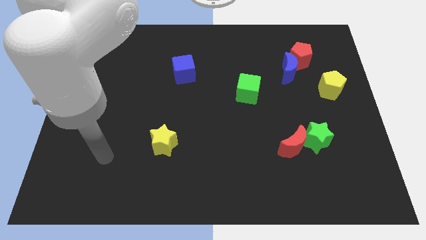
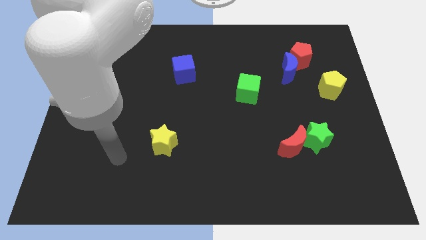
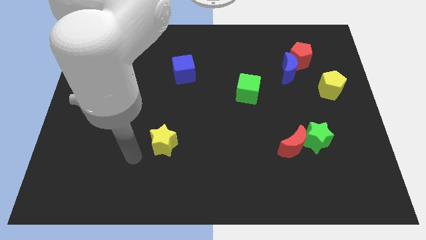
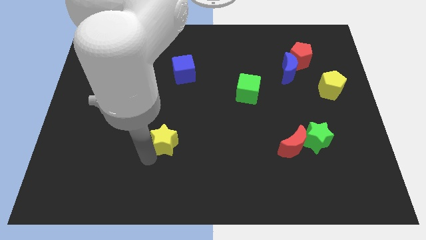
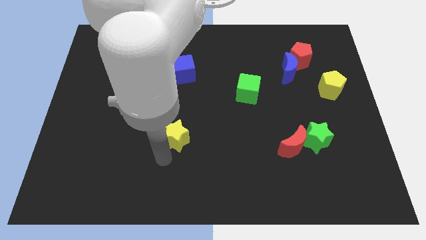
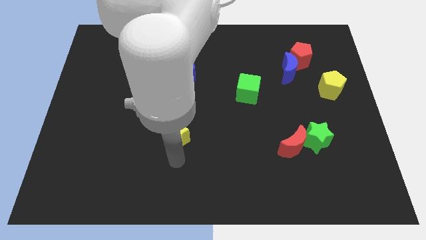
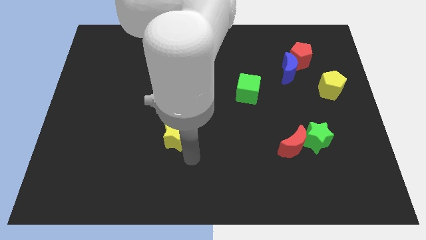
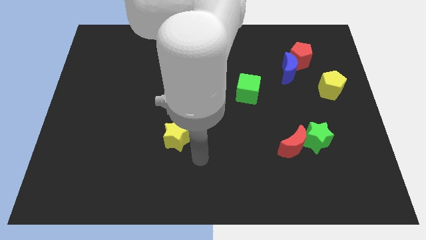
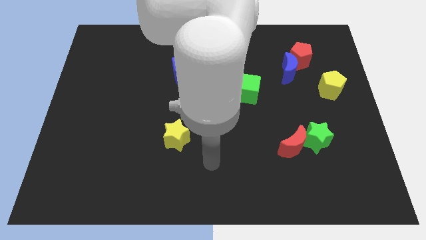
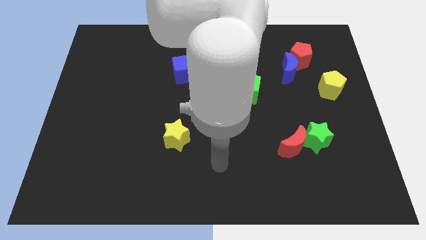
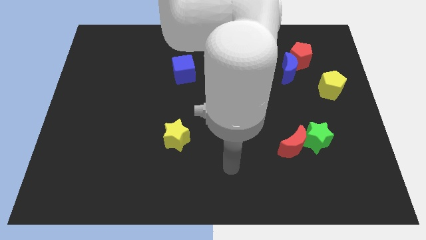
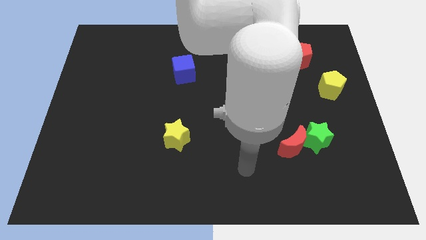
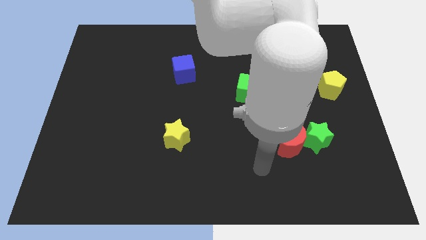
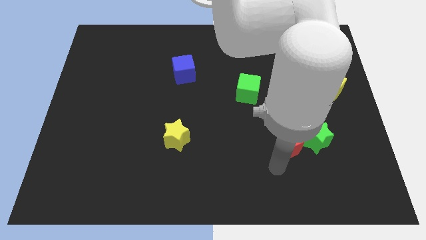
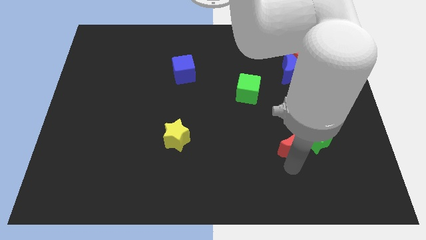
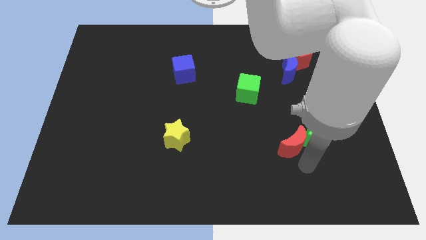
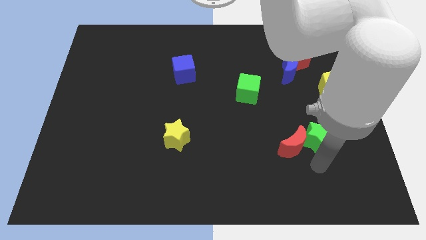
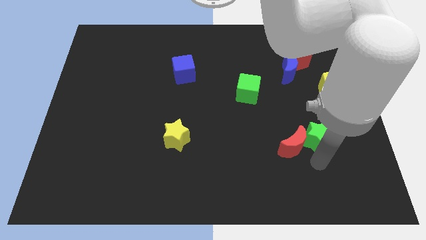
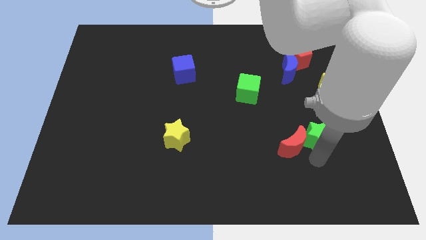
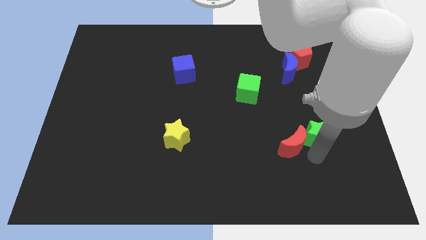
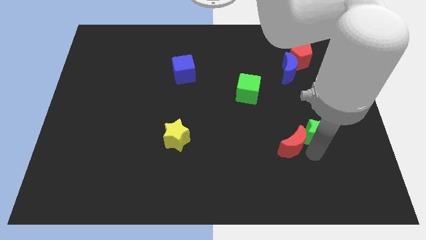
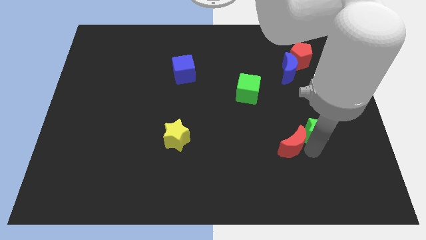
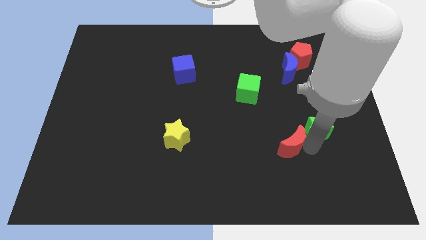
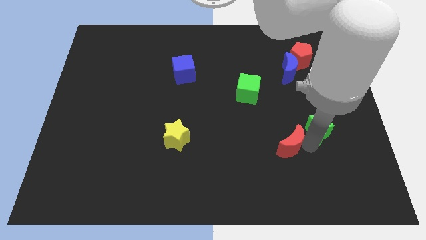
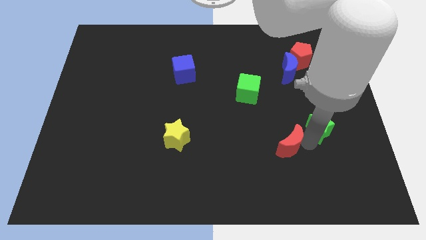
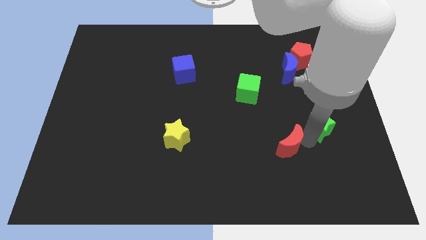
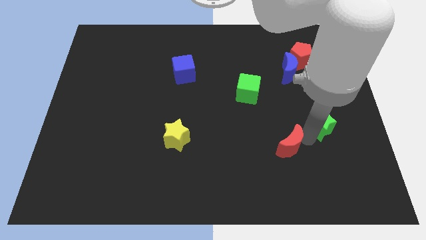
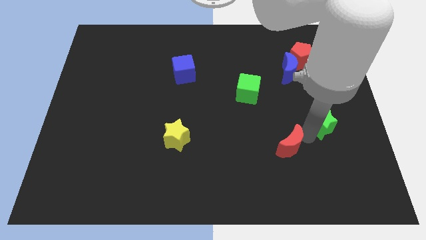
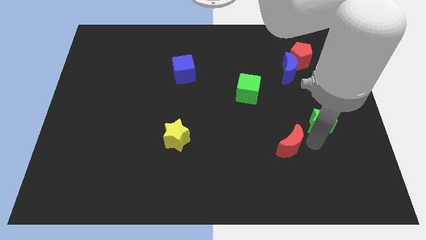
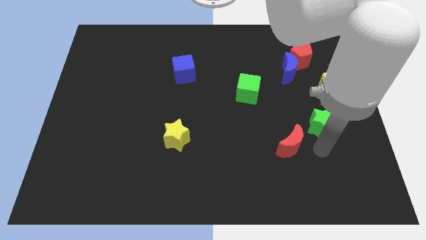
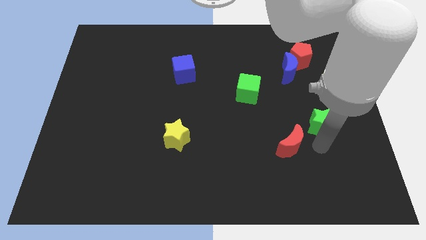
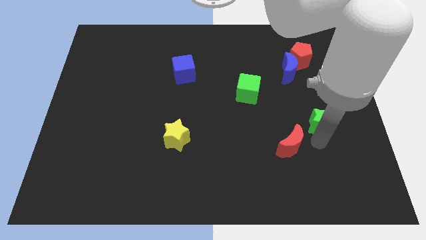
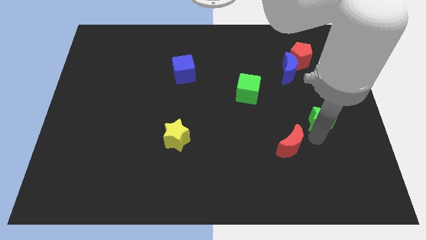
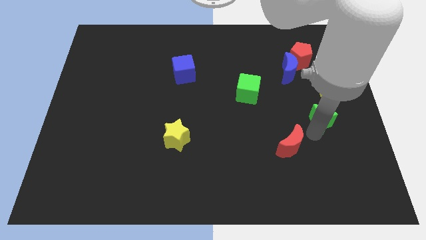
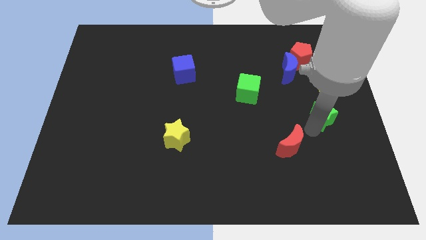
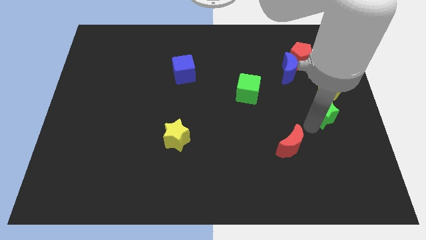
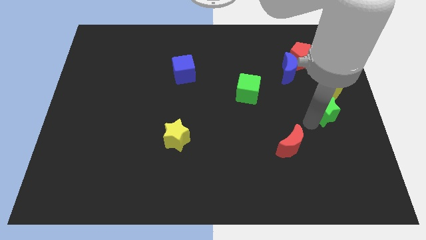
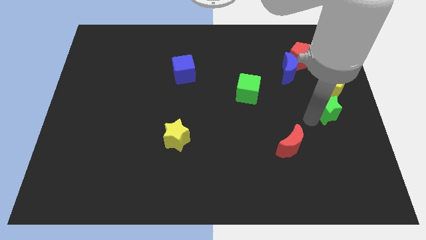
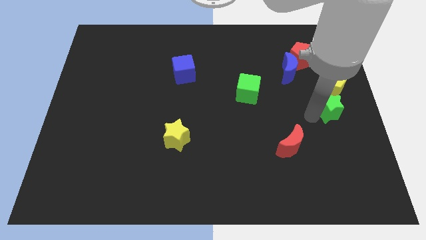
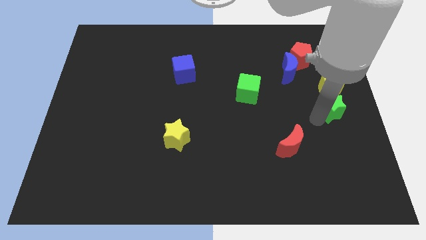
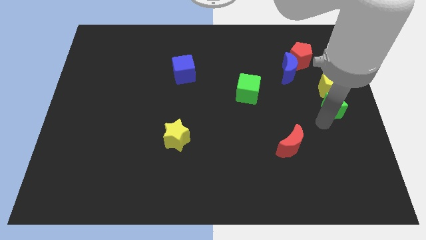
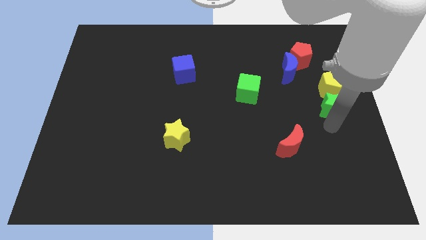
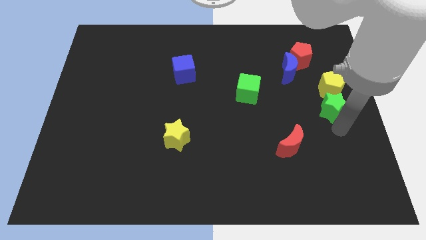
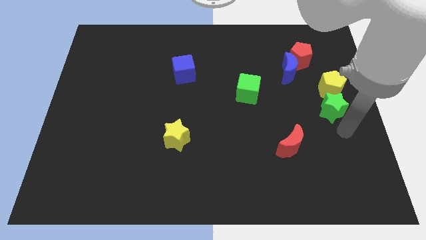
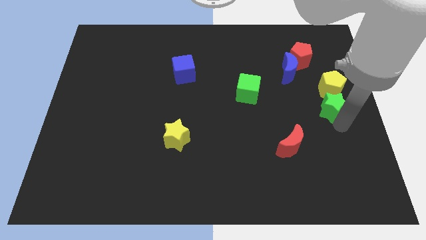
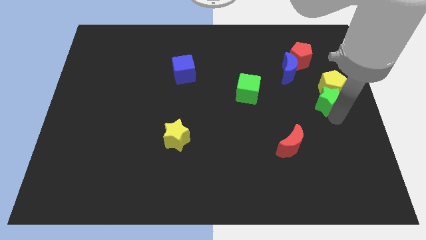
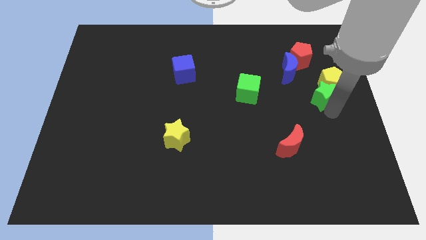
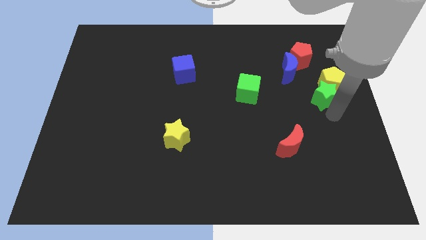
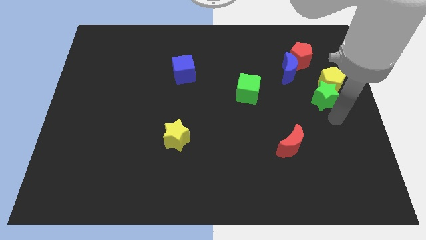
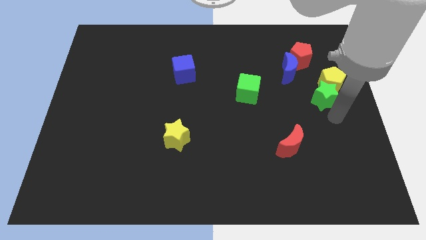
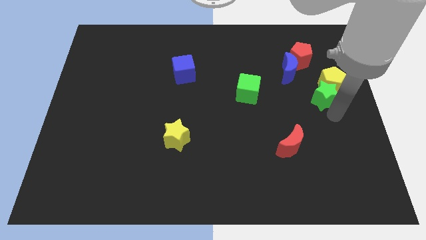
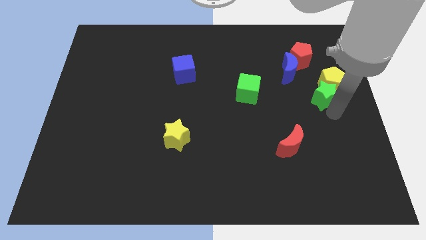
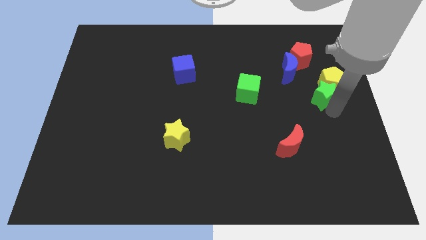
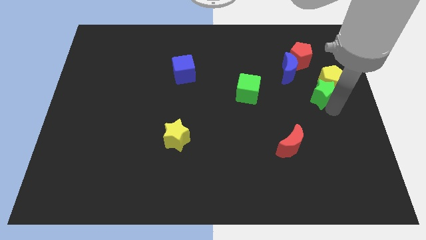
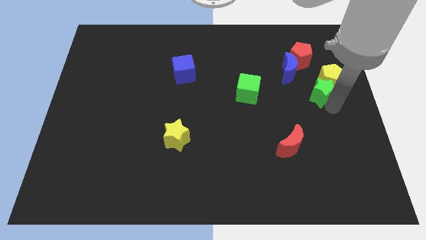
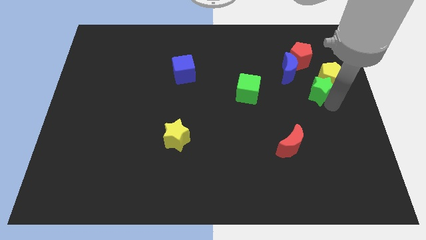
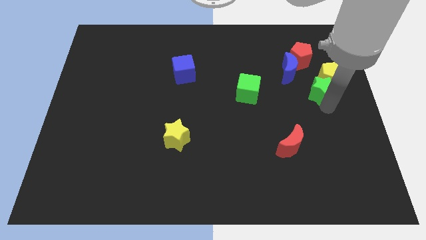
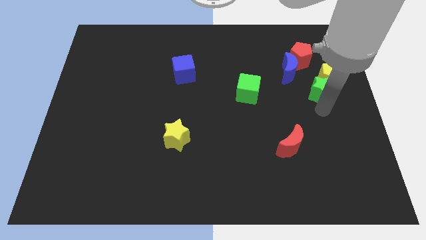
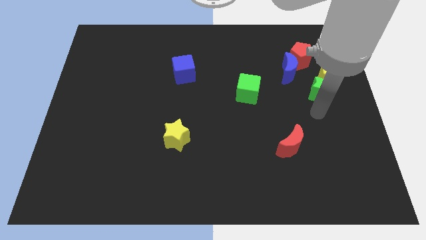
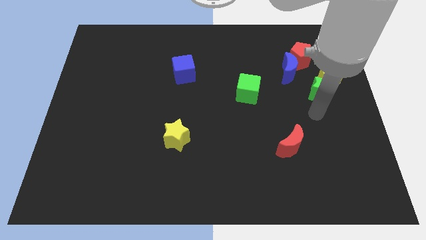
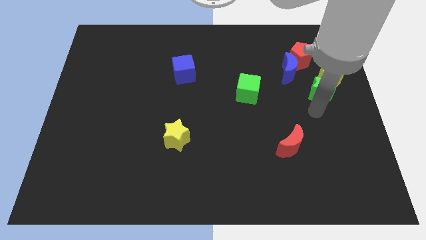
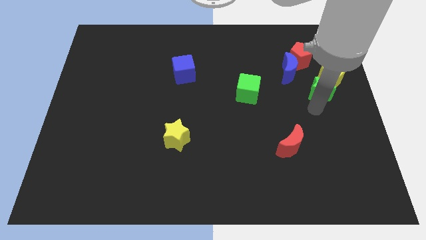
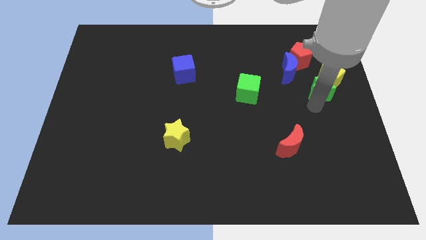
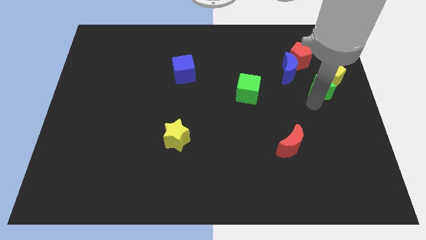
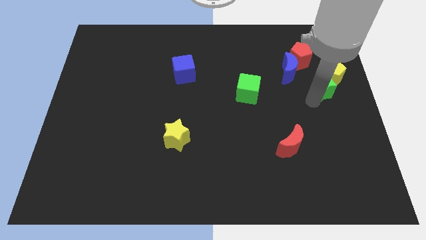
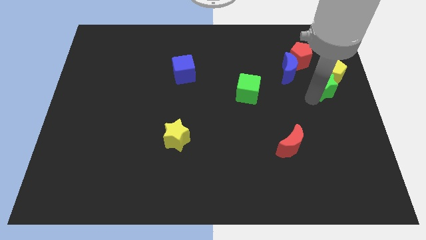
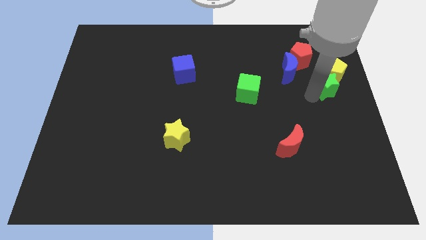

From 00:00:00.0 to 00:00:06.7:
slide the green star diagonally down and to the right of the red pentagon

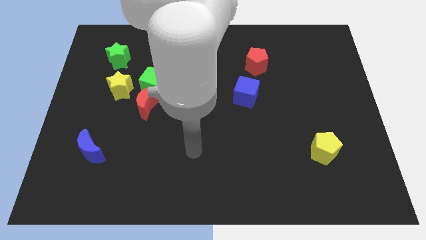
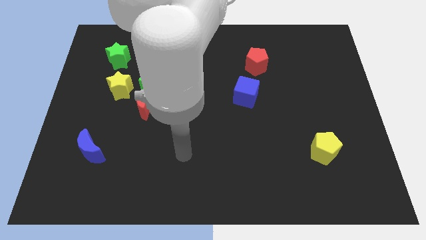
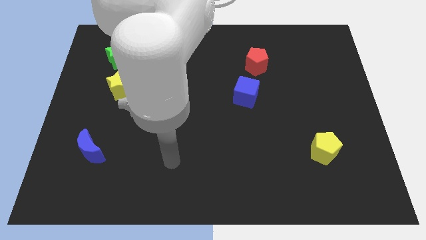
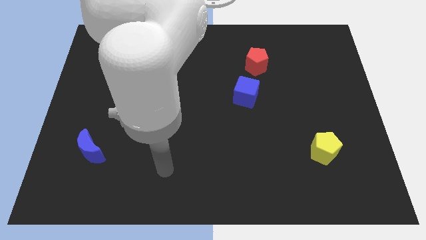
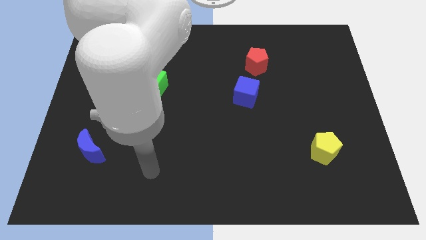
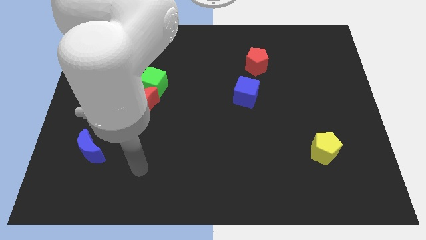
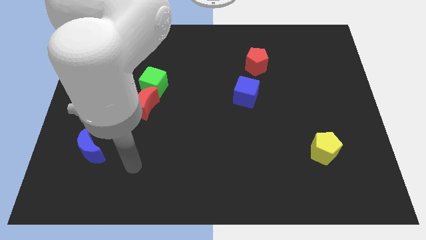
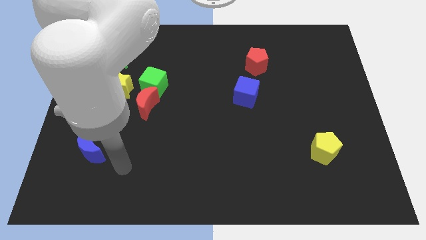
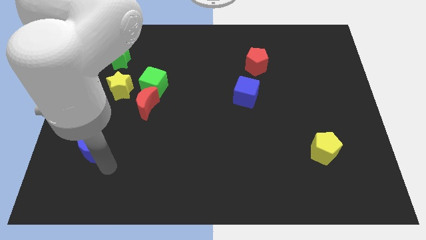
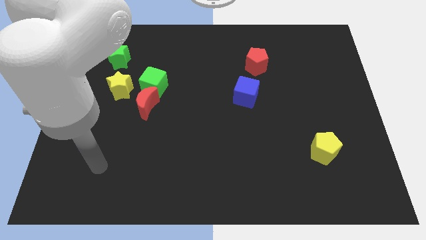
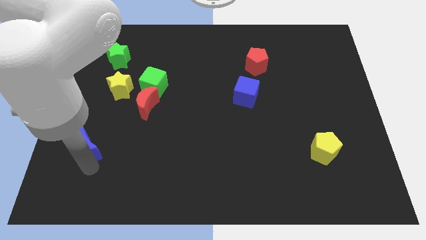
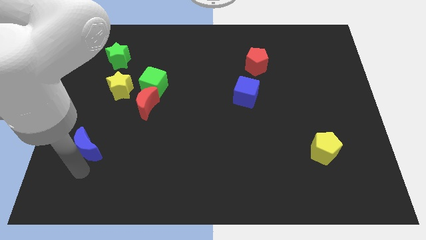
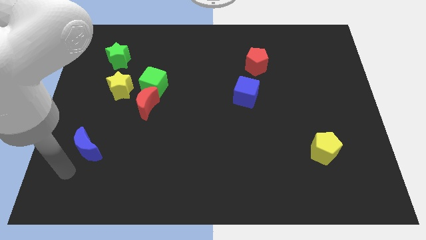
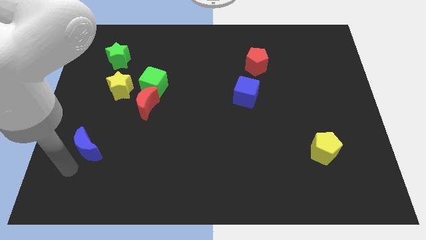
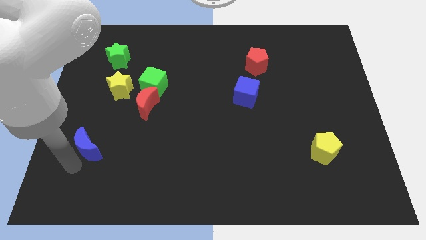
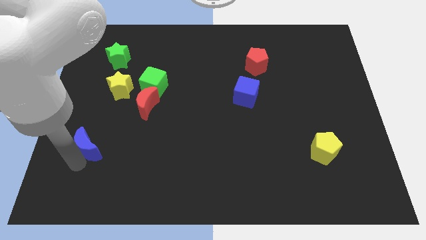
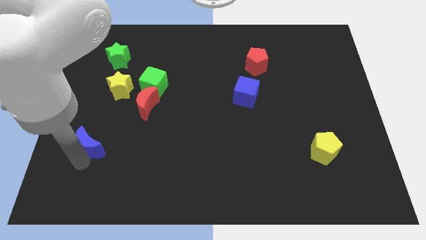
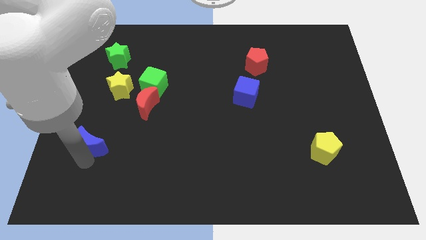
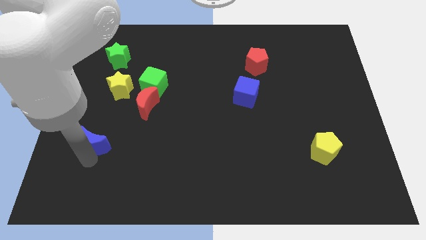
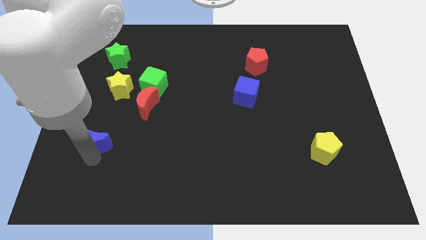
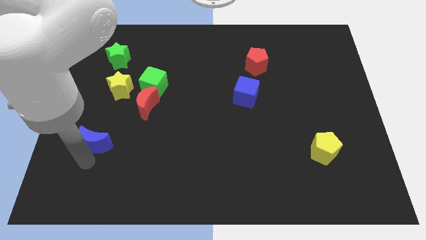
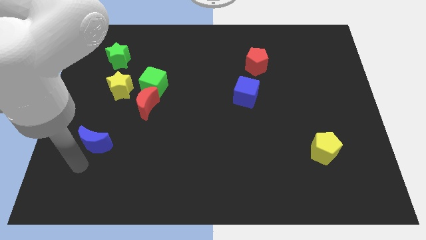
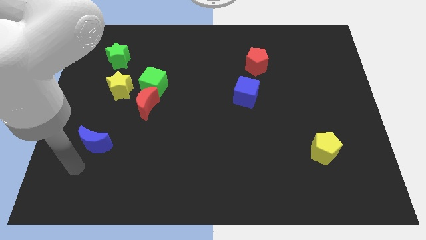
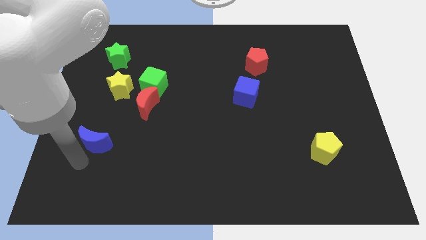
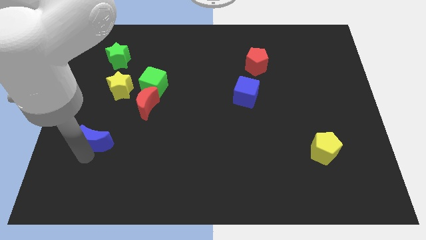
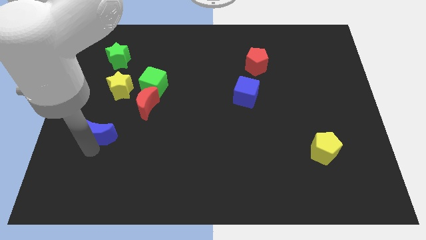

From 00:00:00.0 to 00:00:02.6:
put the blue moon below the yellow star
